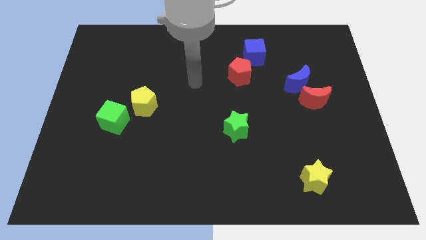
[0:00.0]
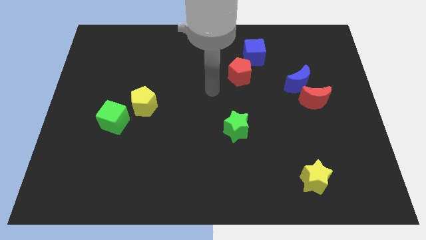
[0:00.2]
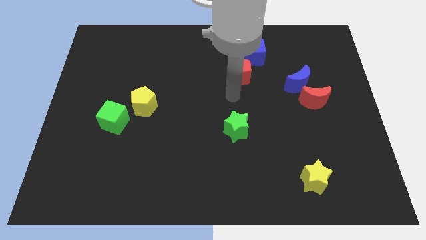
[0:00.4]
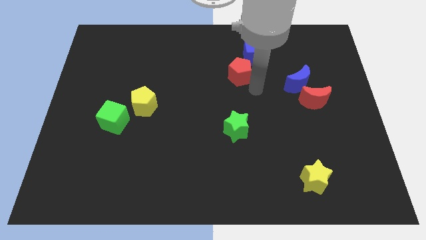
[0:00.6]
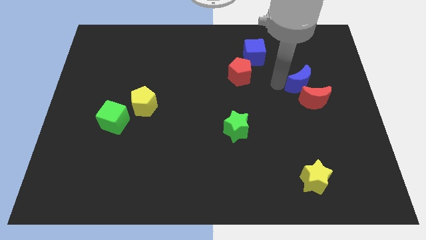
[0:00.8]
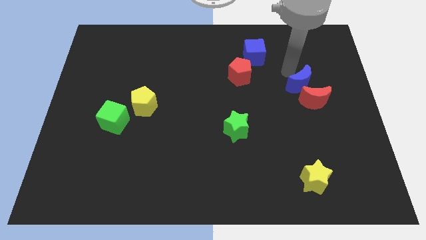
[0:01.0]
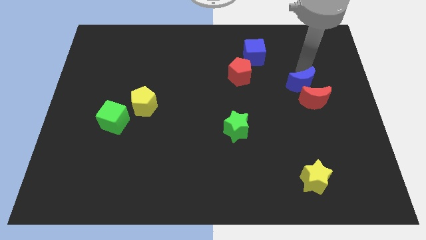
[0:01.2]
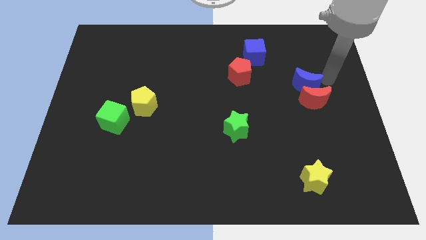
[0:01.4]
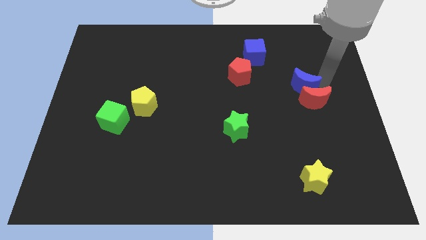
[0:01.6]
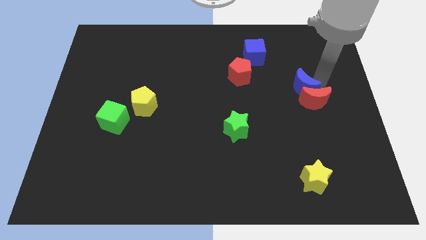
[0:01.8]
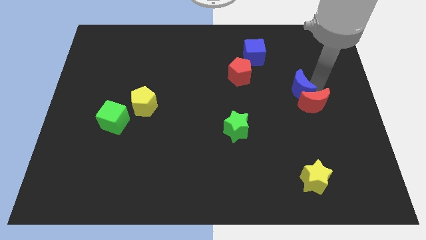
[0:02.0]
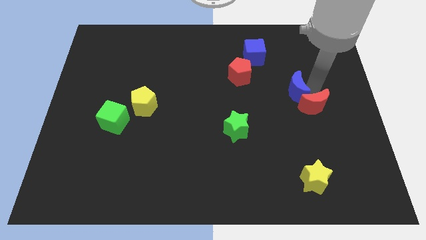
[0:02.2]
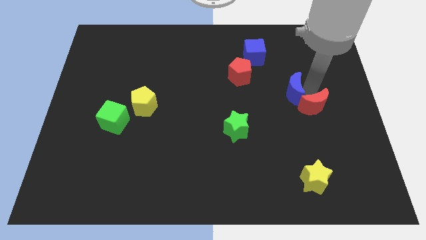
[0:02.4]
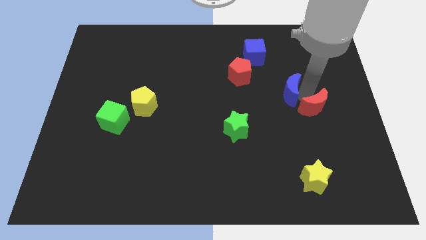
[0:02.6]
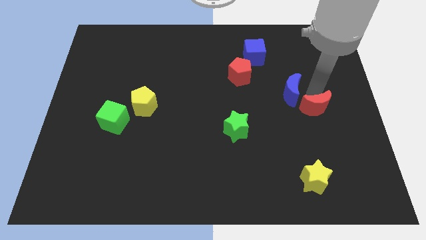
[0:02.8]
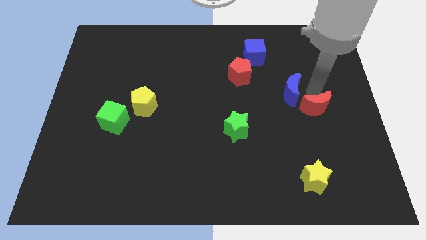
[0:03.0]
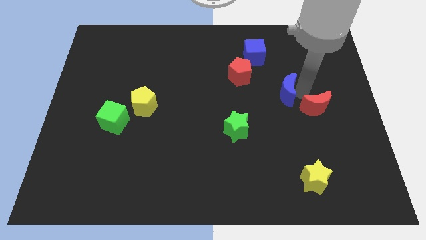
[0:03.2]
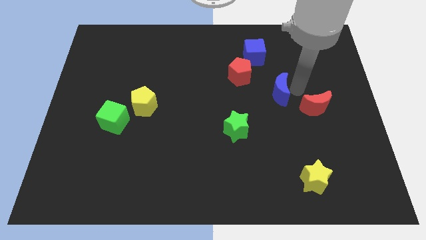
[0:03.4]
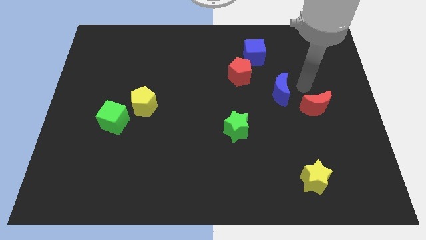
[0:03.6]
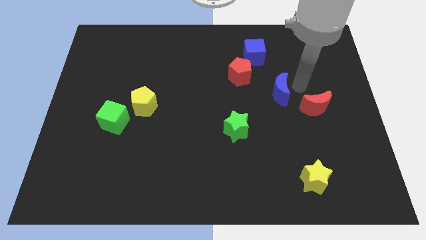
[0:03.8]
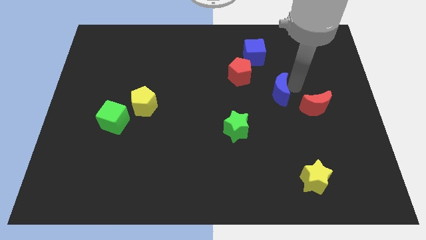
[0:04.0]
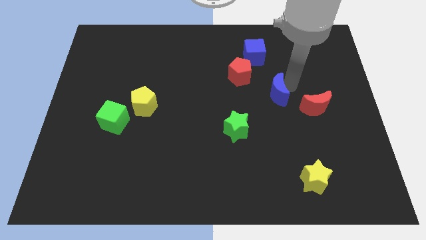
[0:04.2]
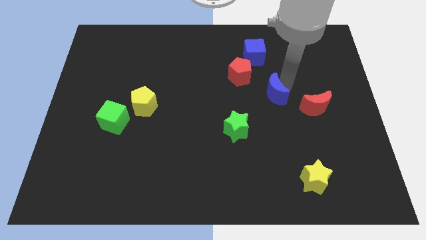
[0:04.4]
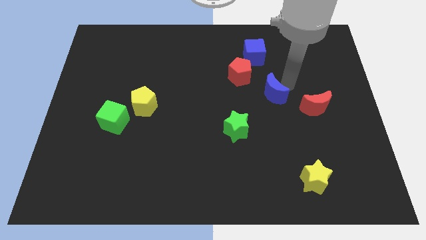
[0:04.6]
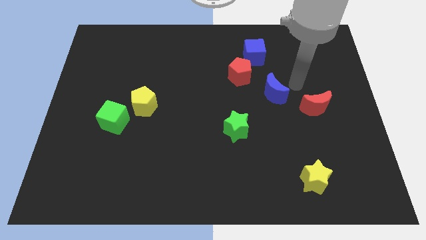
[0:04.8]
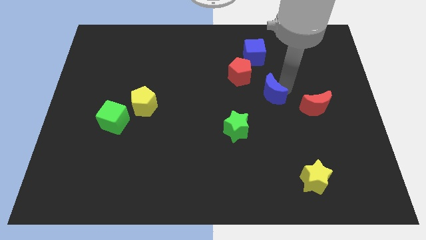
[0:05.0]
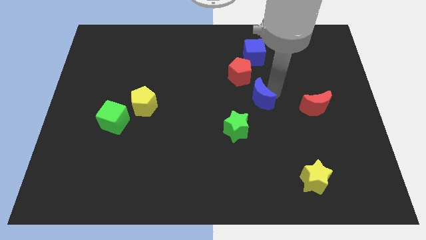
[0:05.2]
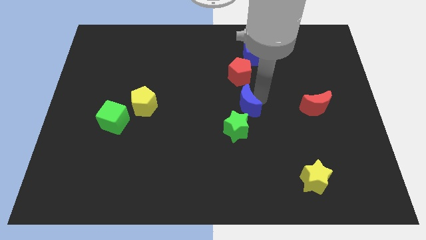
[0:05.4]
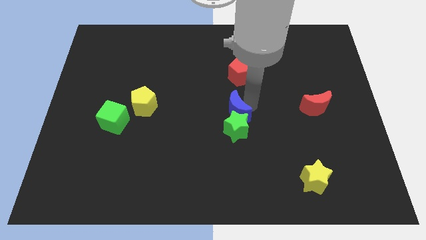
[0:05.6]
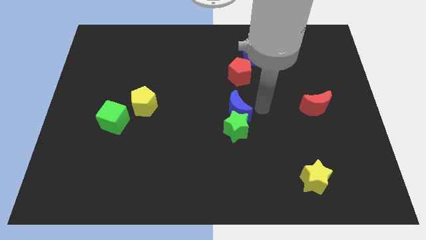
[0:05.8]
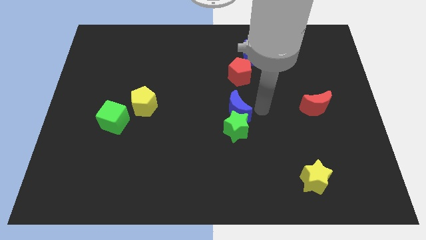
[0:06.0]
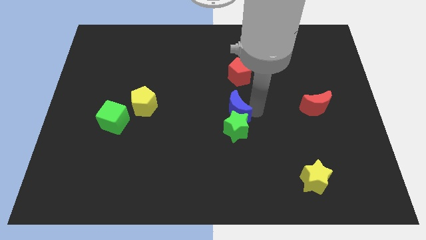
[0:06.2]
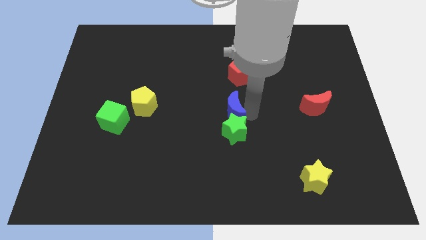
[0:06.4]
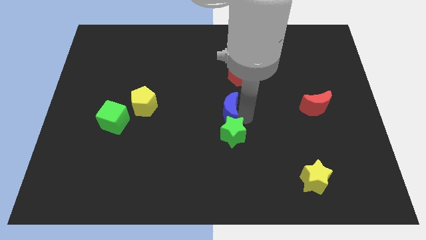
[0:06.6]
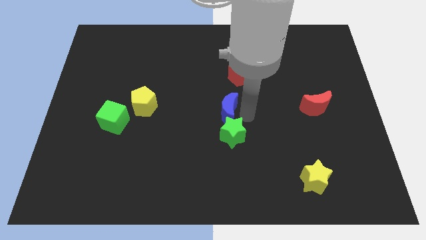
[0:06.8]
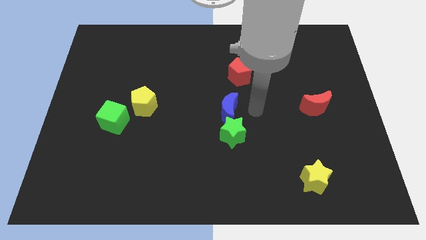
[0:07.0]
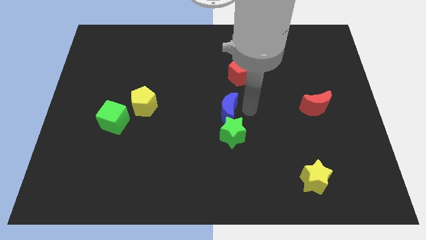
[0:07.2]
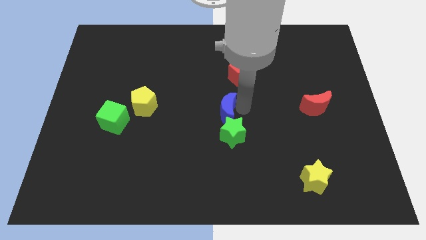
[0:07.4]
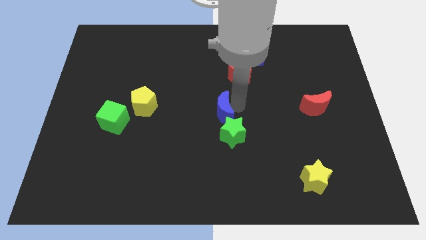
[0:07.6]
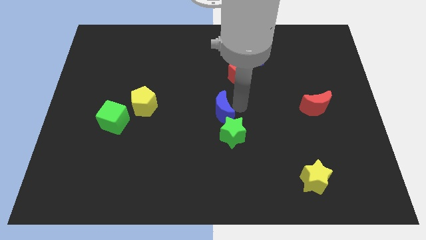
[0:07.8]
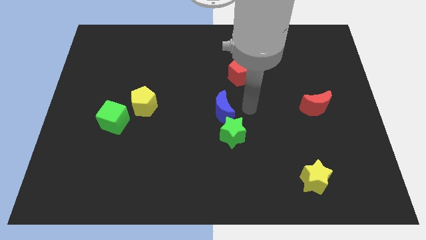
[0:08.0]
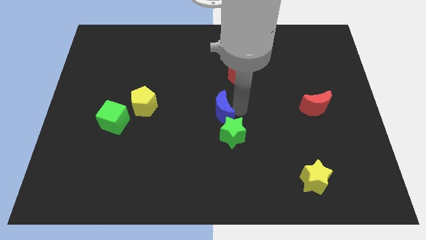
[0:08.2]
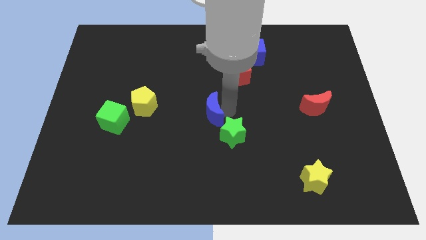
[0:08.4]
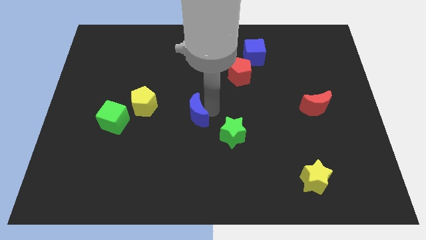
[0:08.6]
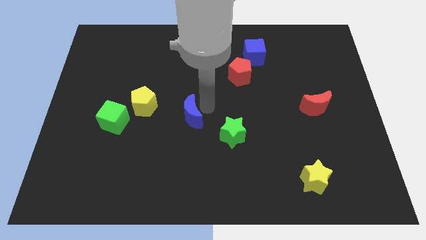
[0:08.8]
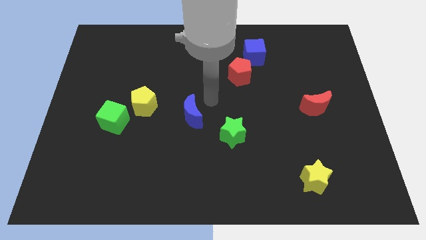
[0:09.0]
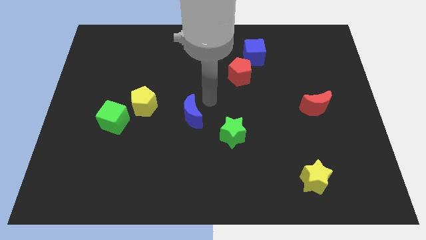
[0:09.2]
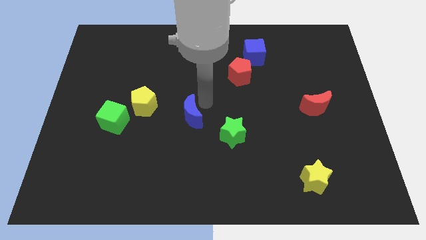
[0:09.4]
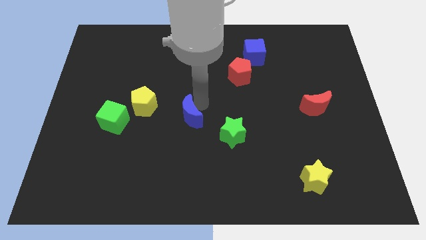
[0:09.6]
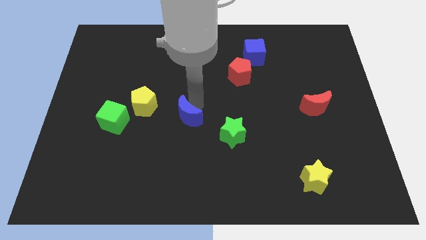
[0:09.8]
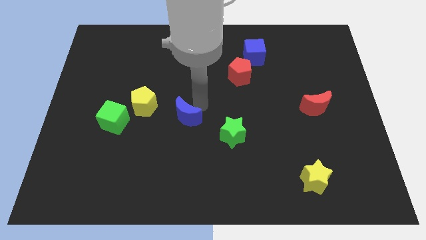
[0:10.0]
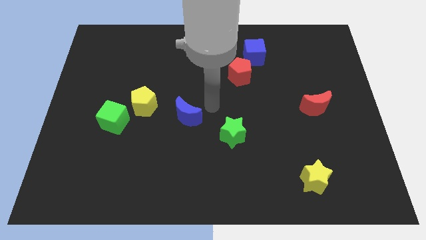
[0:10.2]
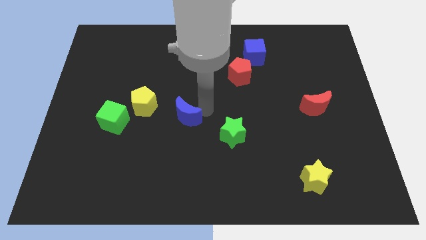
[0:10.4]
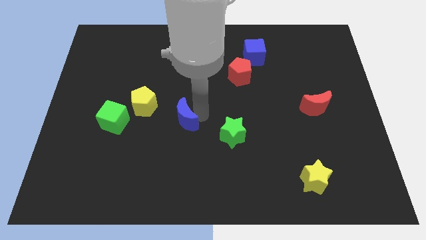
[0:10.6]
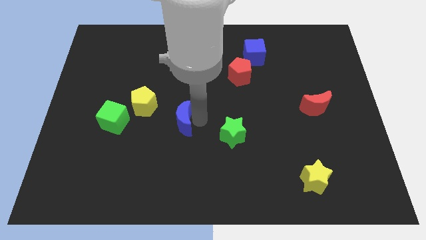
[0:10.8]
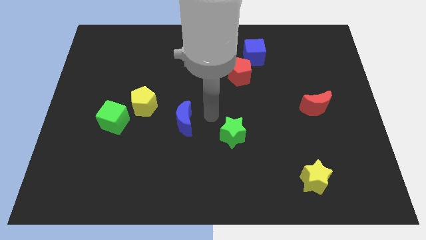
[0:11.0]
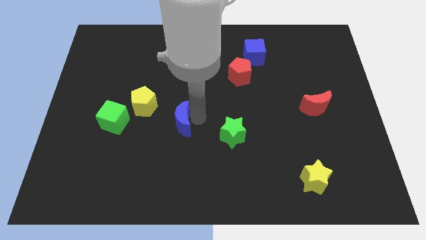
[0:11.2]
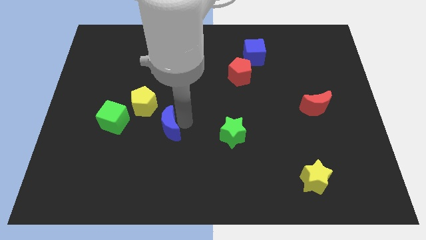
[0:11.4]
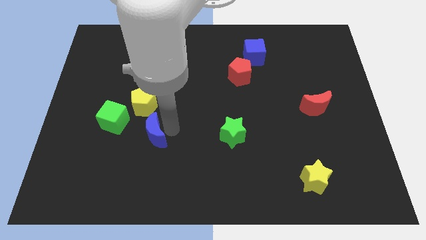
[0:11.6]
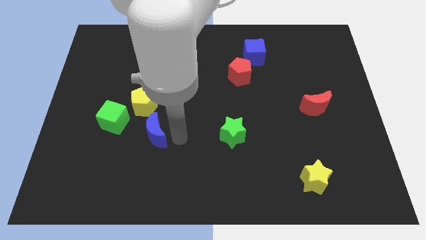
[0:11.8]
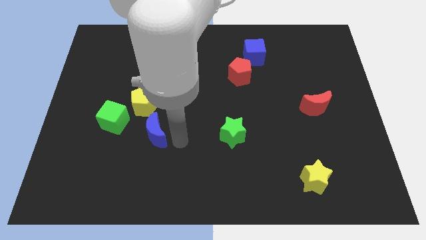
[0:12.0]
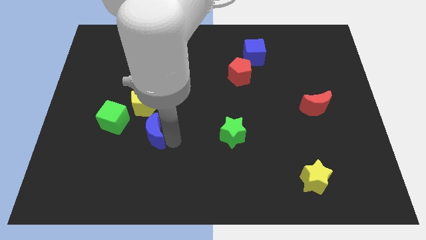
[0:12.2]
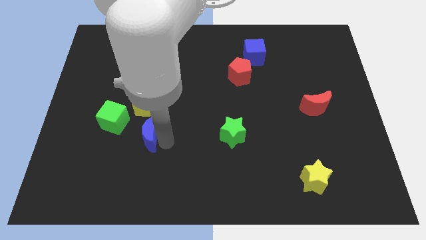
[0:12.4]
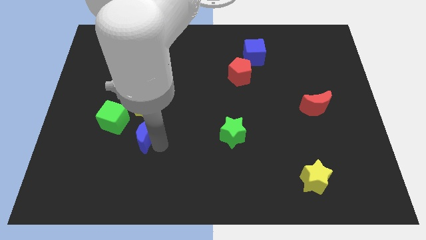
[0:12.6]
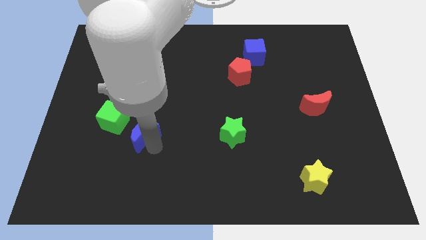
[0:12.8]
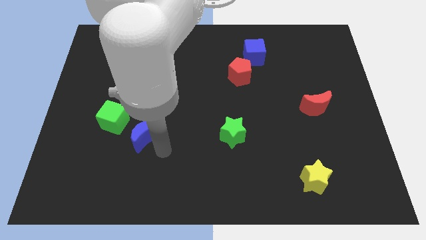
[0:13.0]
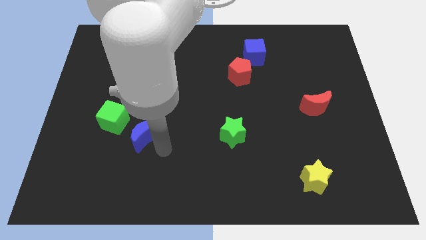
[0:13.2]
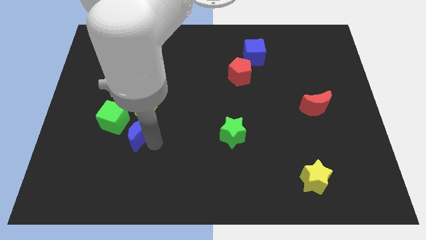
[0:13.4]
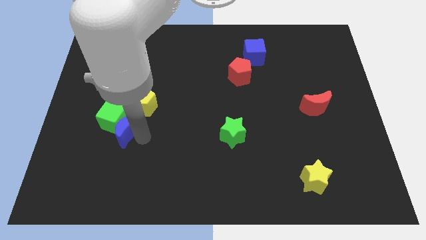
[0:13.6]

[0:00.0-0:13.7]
slide the blue moon close to the green cube
